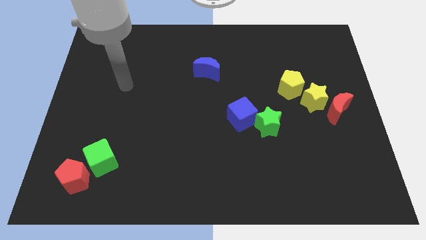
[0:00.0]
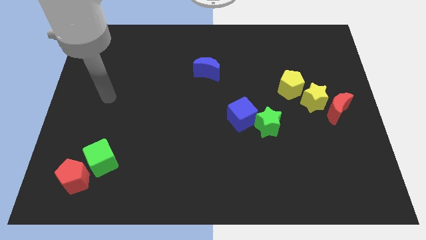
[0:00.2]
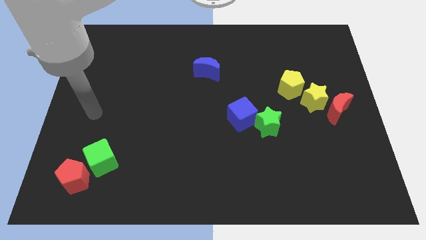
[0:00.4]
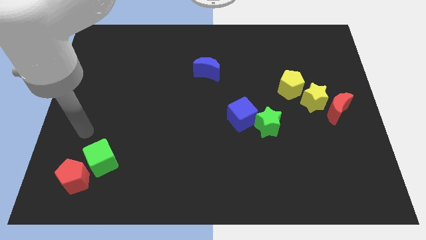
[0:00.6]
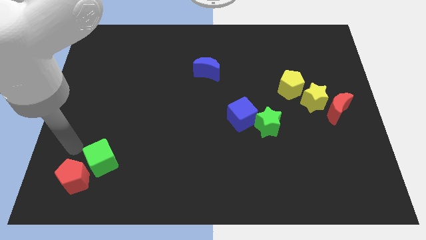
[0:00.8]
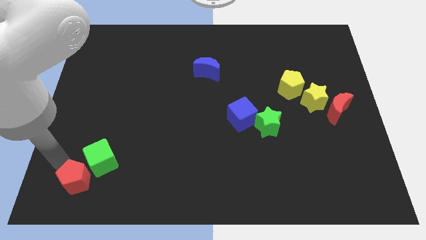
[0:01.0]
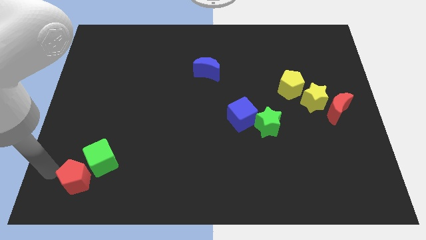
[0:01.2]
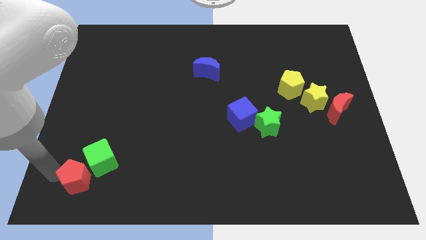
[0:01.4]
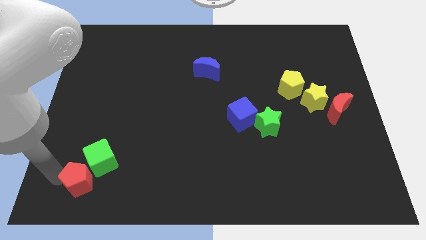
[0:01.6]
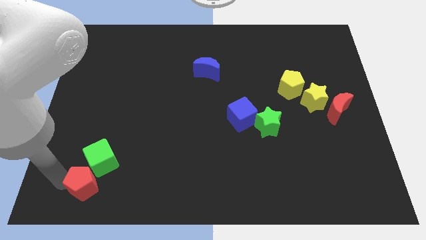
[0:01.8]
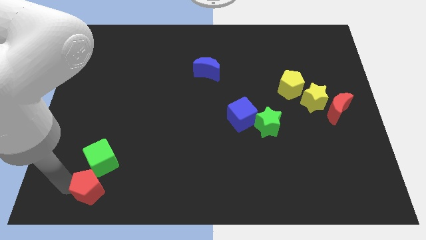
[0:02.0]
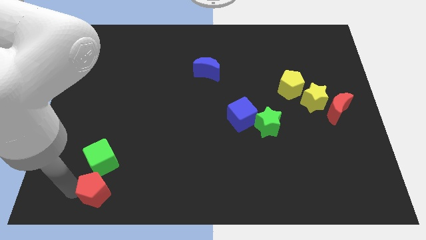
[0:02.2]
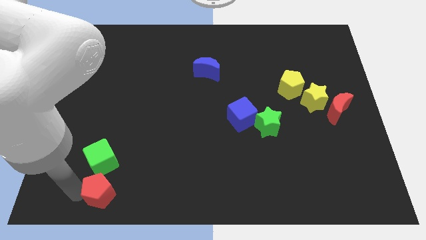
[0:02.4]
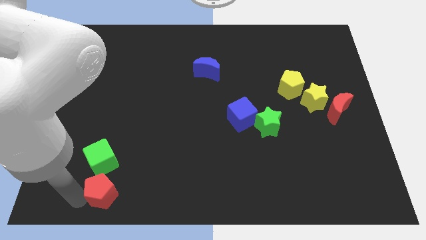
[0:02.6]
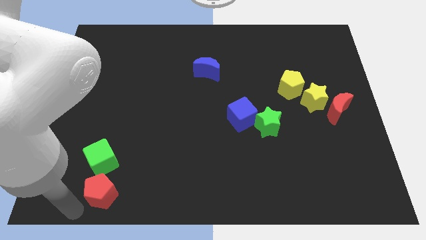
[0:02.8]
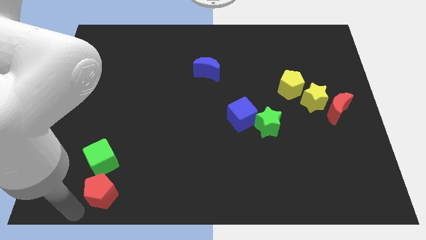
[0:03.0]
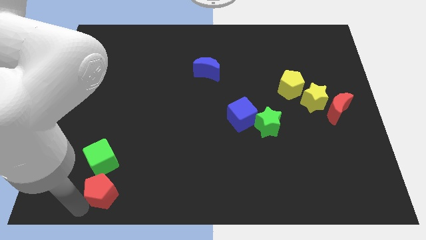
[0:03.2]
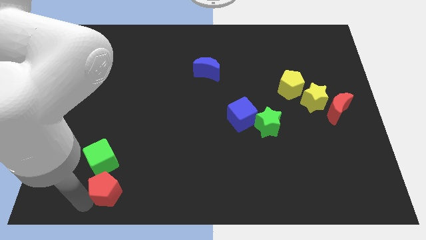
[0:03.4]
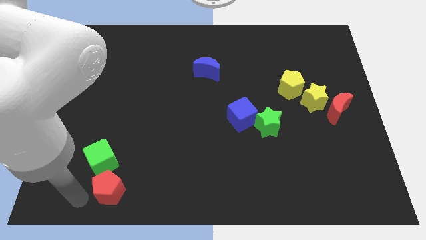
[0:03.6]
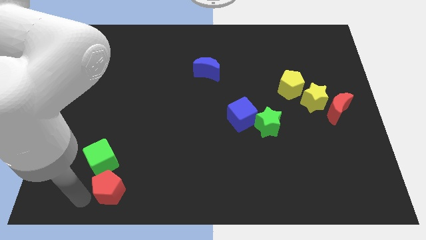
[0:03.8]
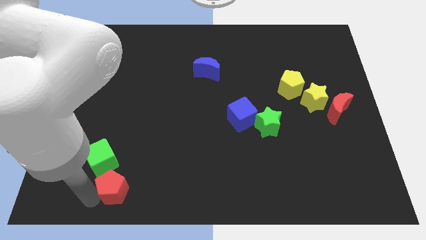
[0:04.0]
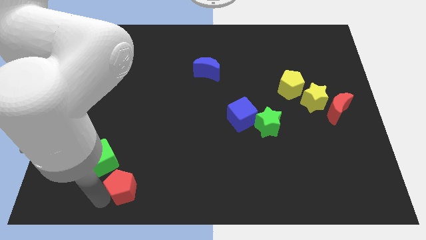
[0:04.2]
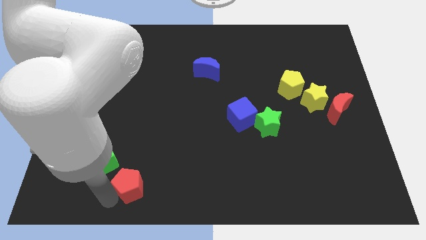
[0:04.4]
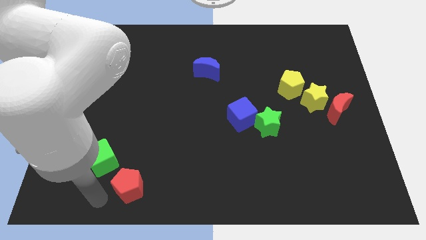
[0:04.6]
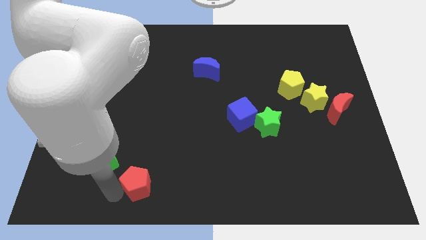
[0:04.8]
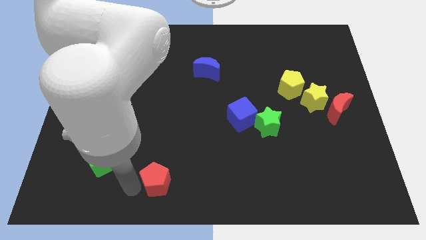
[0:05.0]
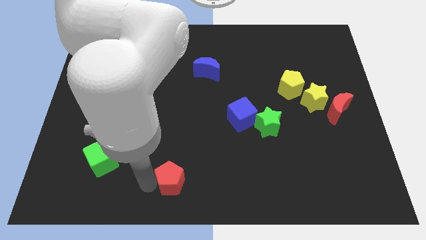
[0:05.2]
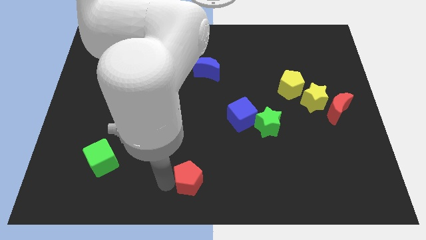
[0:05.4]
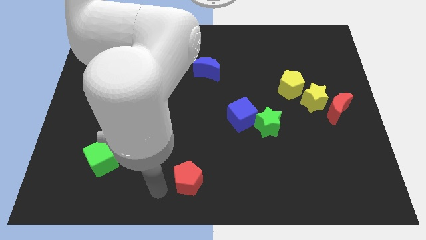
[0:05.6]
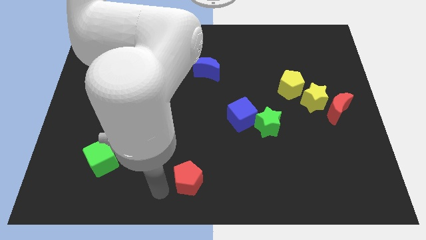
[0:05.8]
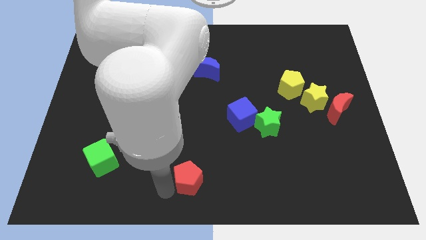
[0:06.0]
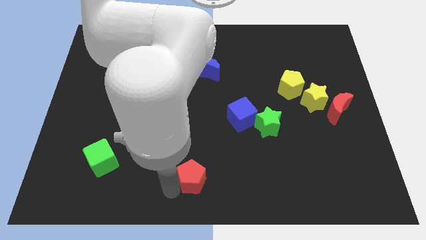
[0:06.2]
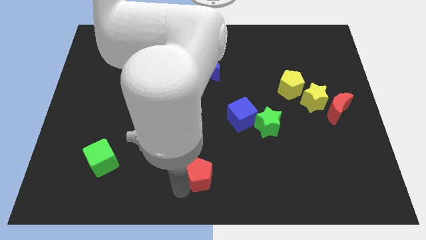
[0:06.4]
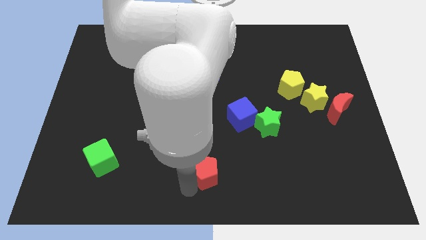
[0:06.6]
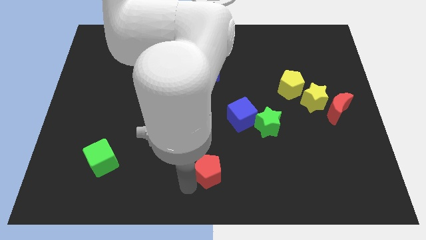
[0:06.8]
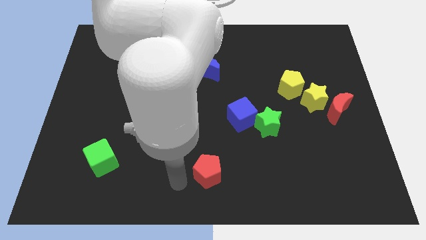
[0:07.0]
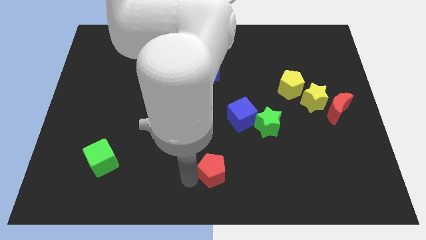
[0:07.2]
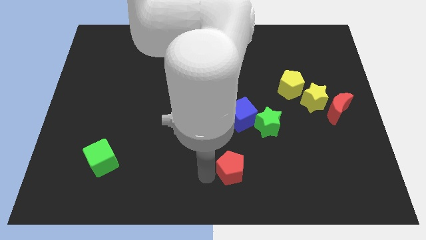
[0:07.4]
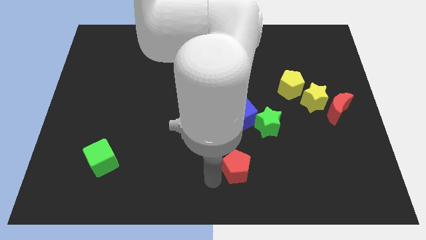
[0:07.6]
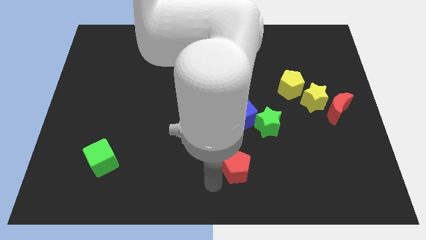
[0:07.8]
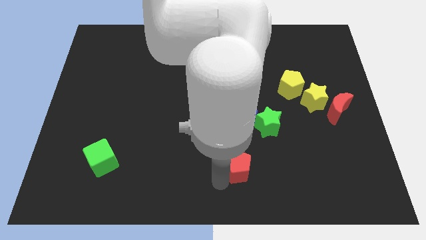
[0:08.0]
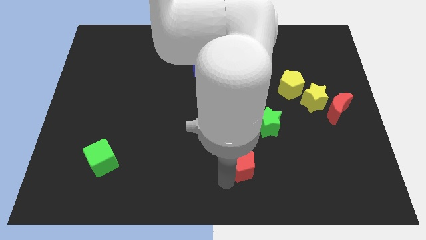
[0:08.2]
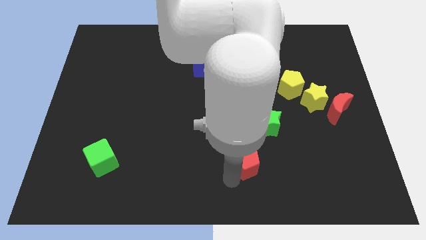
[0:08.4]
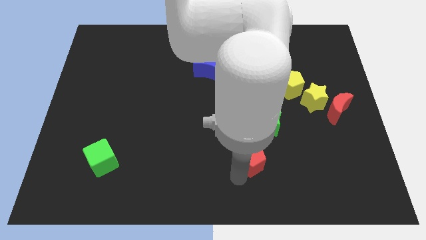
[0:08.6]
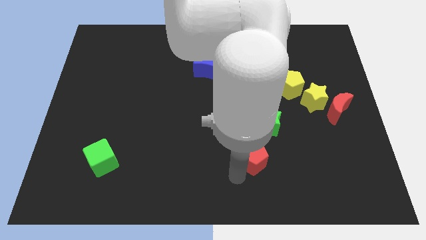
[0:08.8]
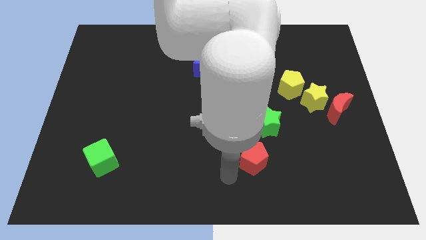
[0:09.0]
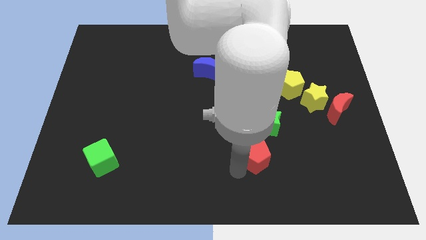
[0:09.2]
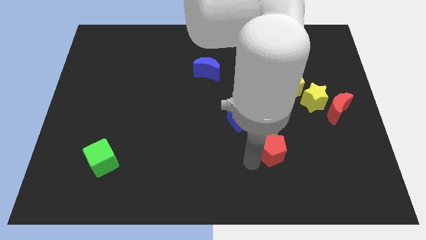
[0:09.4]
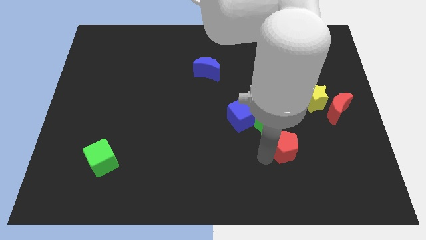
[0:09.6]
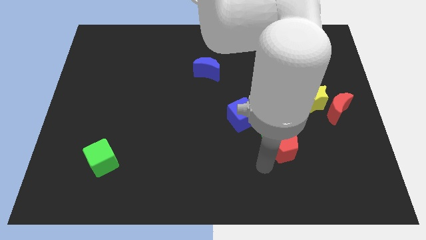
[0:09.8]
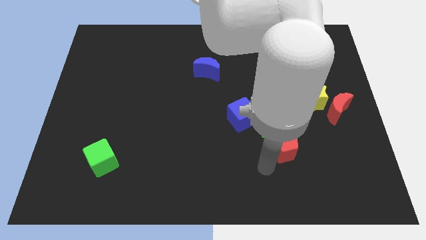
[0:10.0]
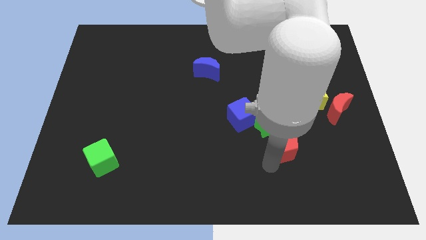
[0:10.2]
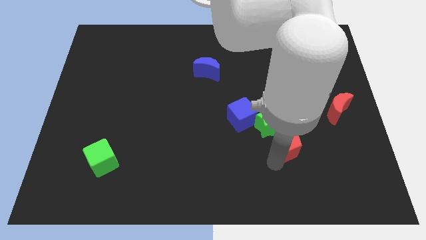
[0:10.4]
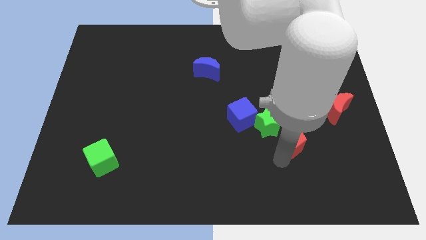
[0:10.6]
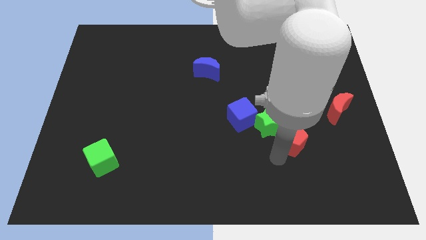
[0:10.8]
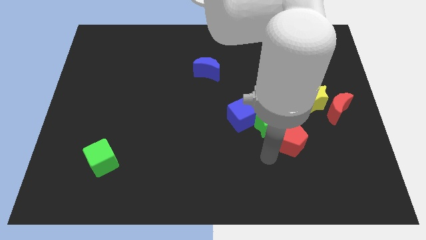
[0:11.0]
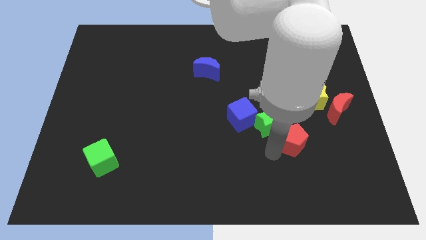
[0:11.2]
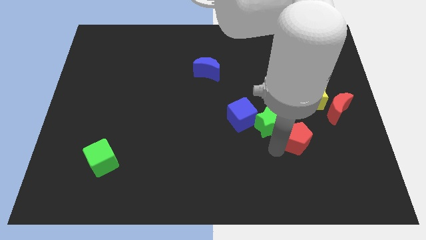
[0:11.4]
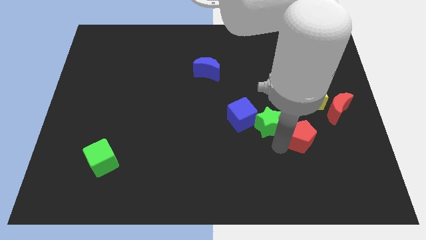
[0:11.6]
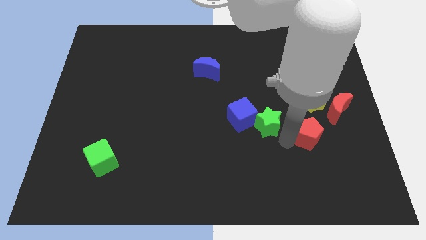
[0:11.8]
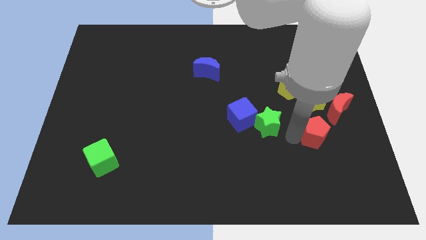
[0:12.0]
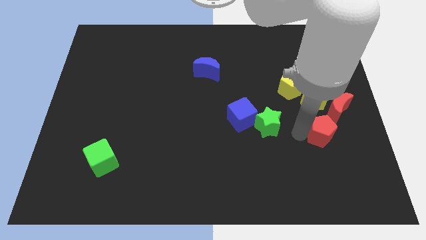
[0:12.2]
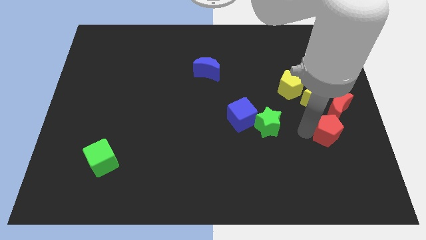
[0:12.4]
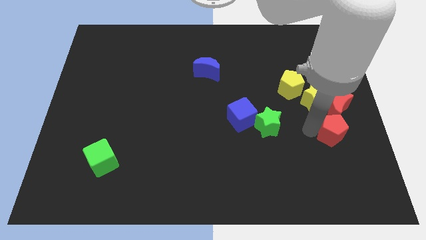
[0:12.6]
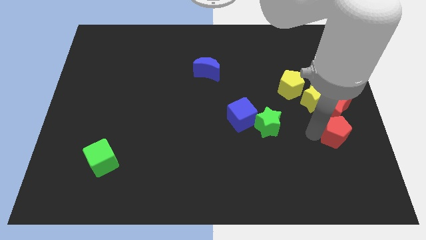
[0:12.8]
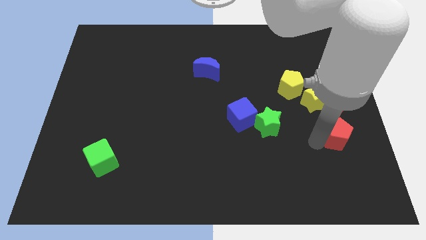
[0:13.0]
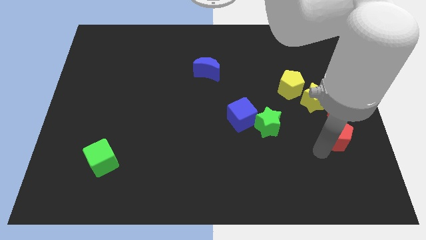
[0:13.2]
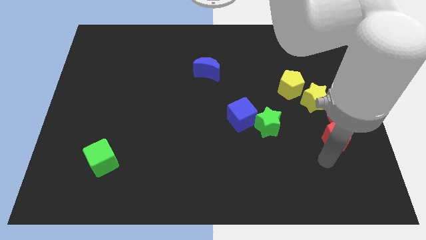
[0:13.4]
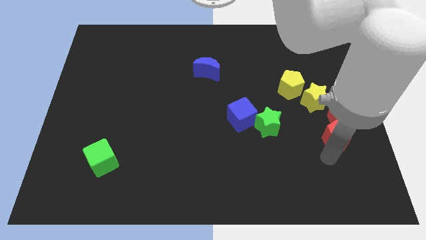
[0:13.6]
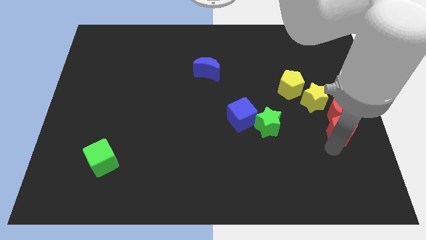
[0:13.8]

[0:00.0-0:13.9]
slide the red pentagon to the right side
